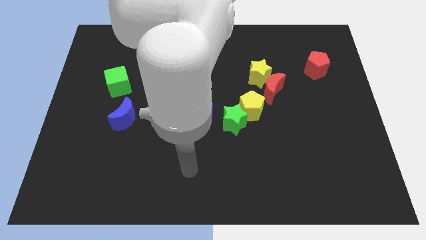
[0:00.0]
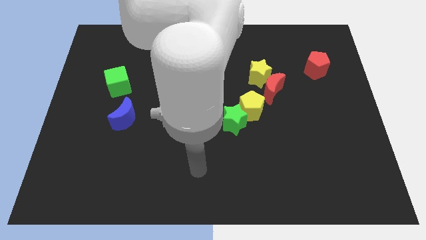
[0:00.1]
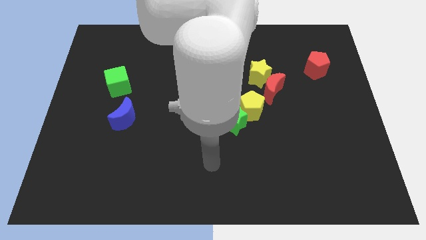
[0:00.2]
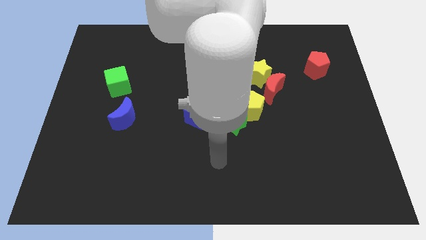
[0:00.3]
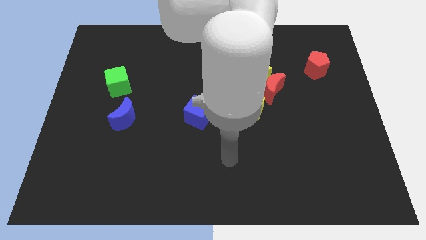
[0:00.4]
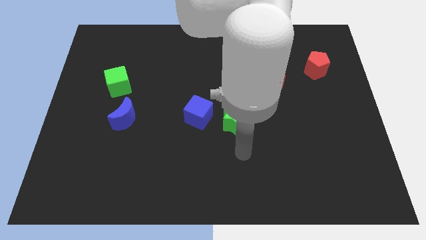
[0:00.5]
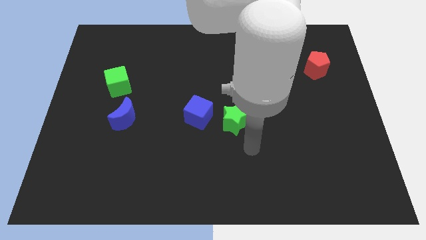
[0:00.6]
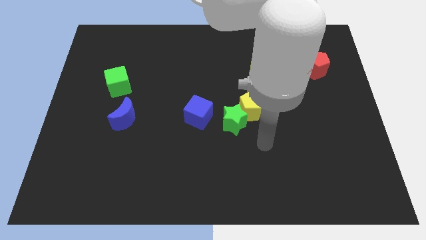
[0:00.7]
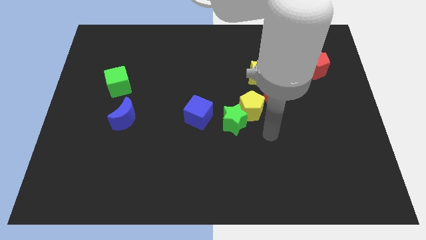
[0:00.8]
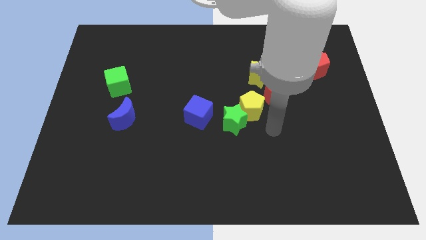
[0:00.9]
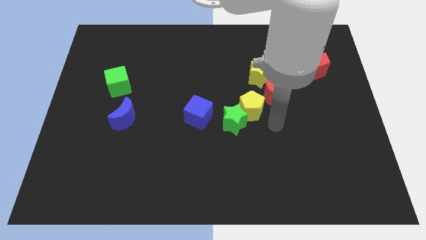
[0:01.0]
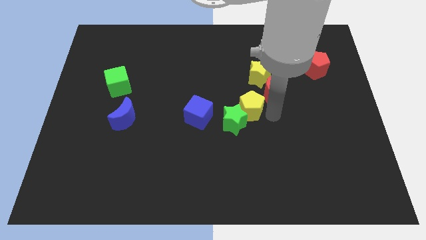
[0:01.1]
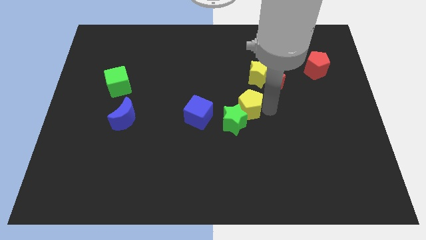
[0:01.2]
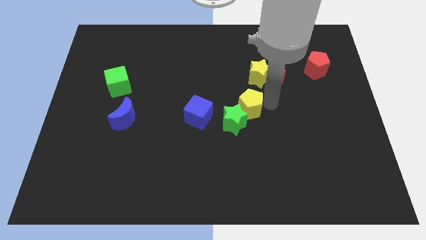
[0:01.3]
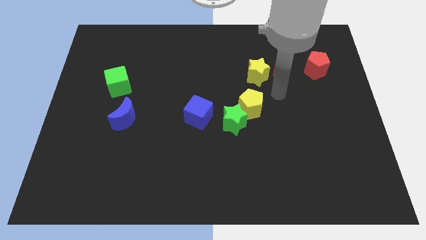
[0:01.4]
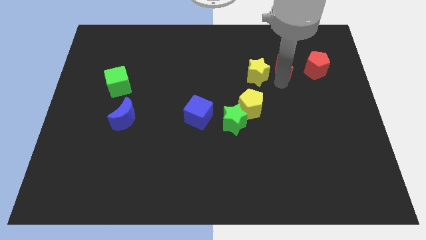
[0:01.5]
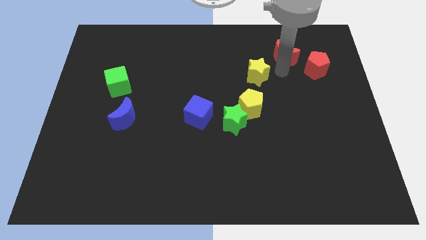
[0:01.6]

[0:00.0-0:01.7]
move the yellow star away from the red moon

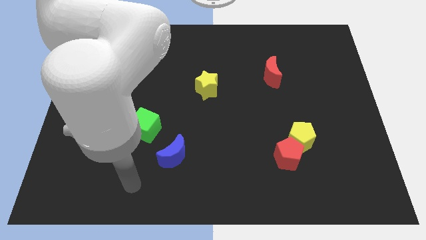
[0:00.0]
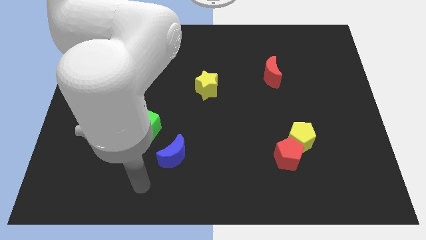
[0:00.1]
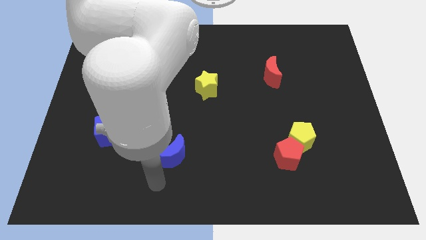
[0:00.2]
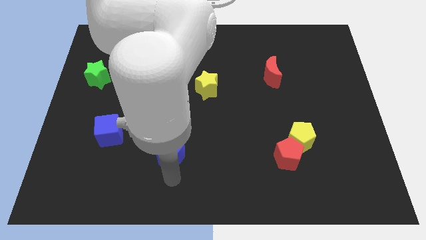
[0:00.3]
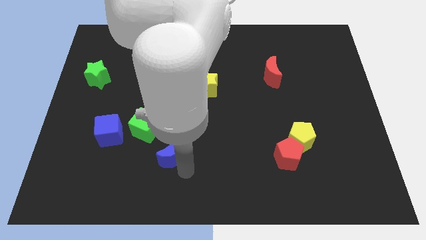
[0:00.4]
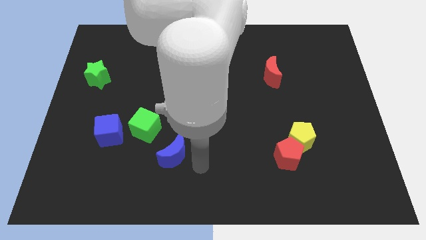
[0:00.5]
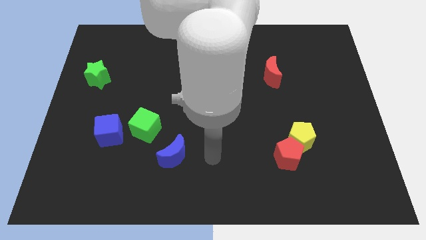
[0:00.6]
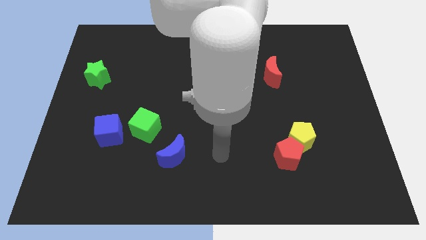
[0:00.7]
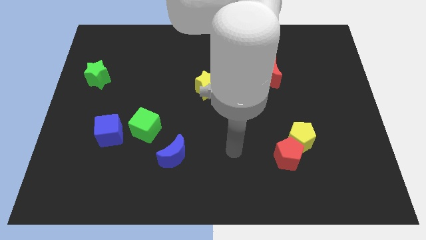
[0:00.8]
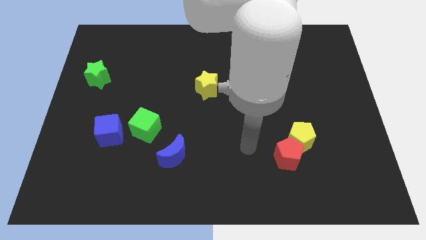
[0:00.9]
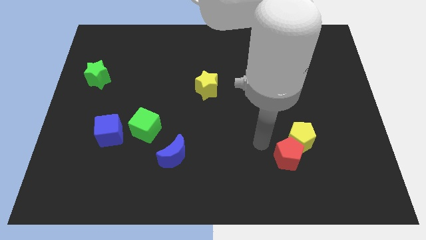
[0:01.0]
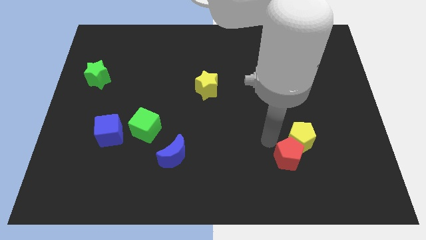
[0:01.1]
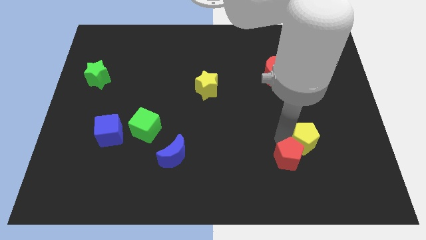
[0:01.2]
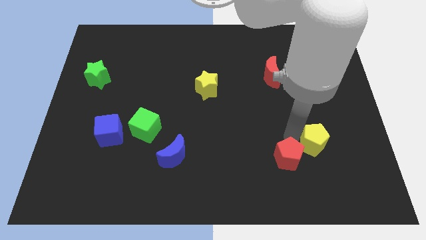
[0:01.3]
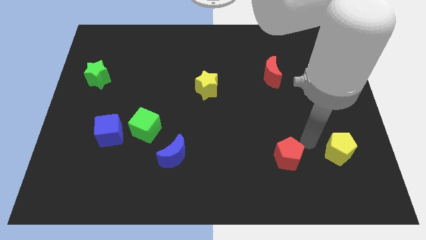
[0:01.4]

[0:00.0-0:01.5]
move the red pentagon away from the yellow pentagon

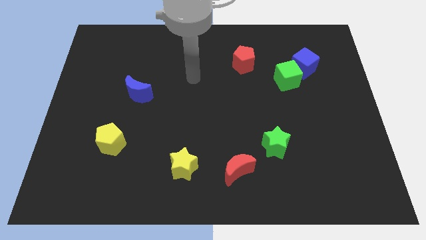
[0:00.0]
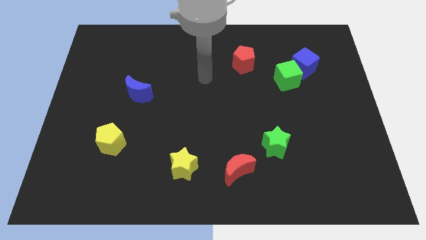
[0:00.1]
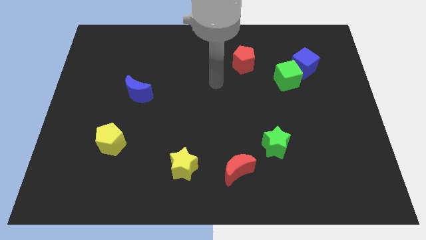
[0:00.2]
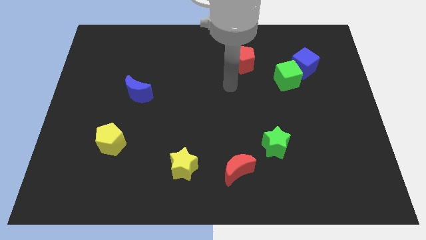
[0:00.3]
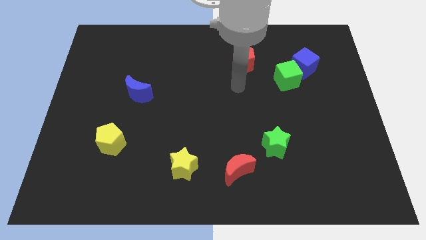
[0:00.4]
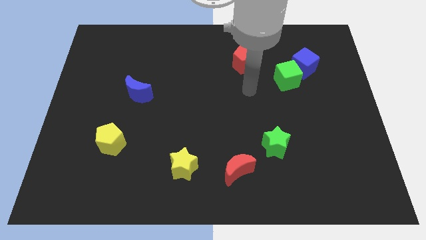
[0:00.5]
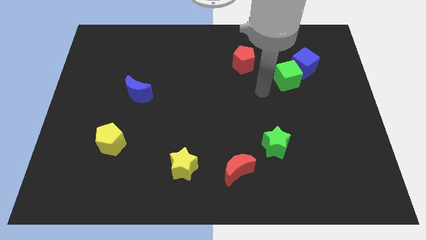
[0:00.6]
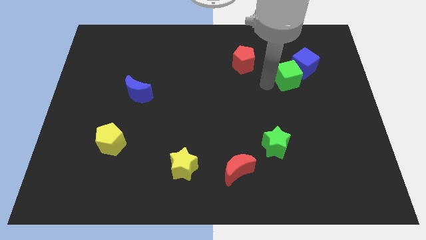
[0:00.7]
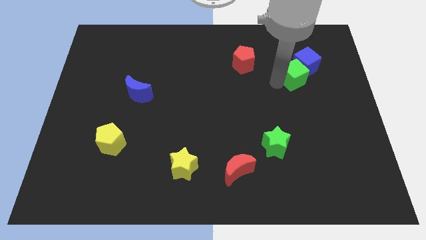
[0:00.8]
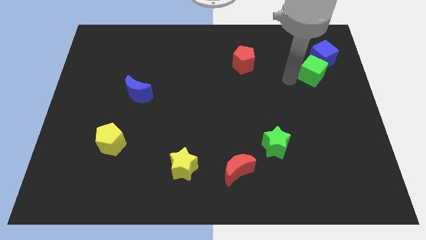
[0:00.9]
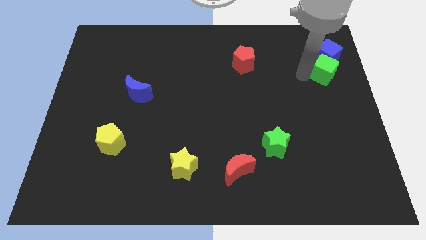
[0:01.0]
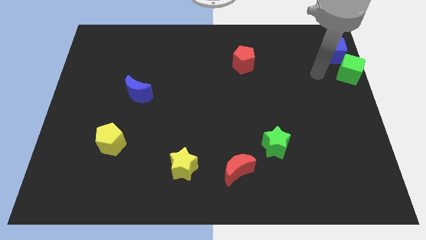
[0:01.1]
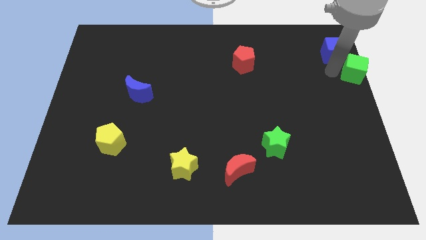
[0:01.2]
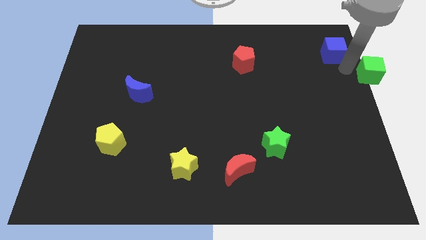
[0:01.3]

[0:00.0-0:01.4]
separate the blue cube from the green cube

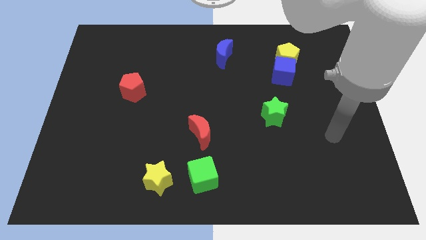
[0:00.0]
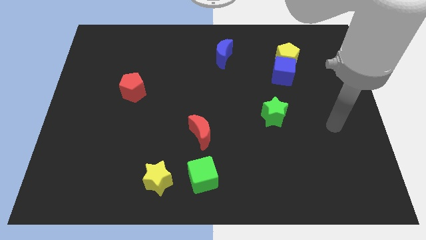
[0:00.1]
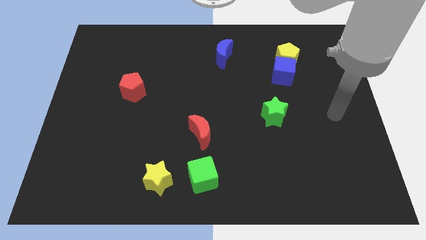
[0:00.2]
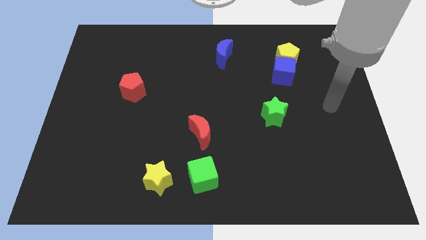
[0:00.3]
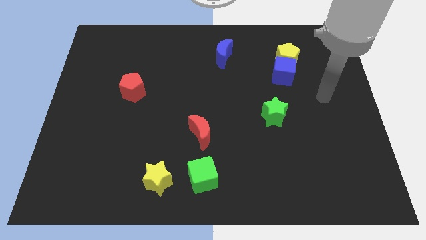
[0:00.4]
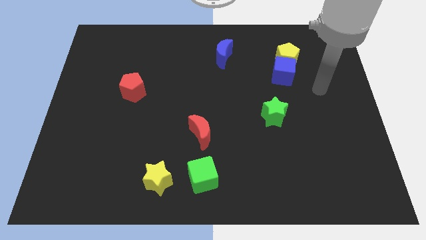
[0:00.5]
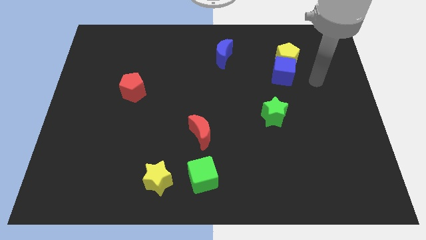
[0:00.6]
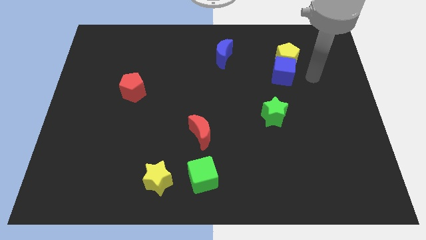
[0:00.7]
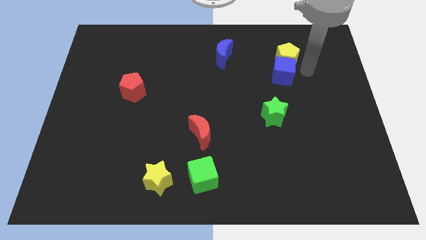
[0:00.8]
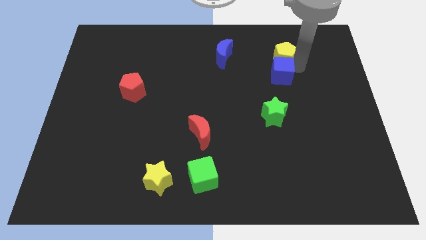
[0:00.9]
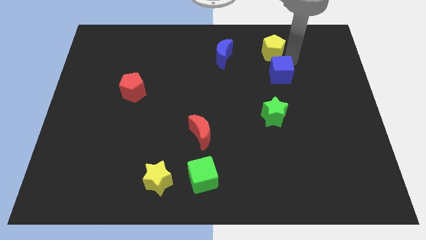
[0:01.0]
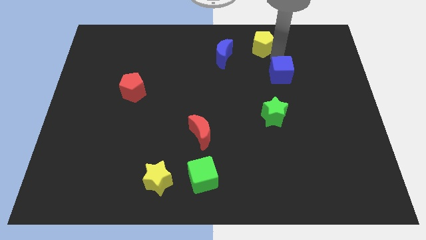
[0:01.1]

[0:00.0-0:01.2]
separate the blue cube from the yellow pentagon

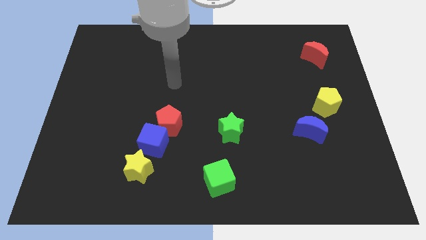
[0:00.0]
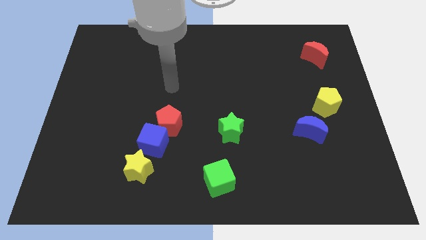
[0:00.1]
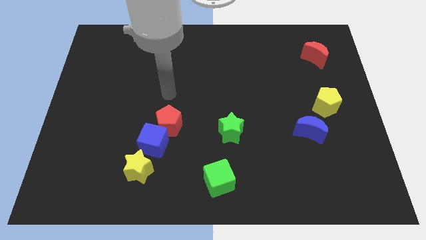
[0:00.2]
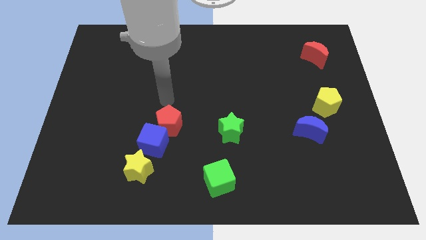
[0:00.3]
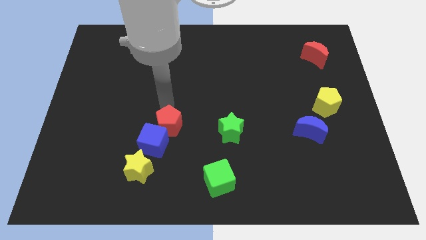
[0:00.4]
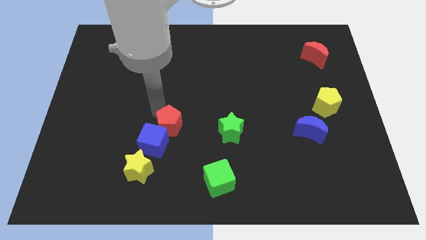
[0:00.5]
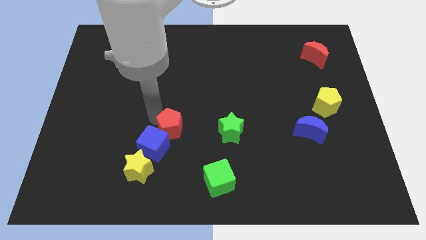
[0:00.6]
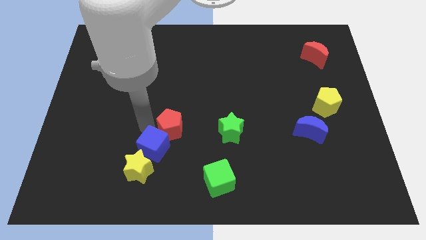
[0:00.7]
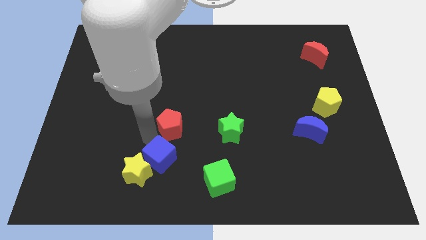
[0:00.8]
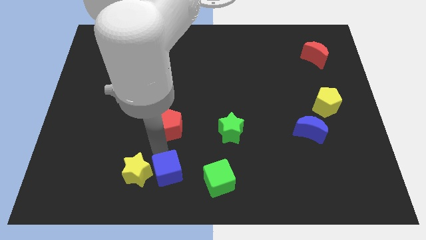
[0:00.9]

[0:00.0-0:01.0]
separate the red pentagon from the blue cube

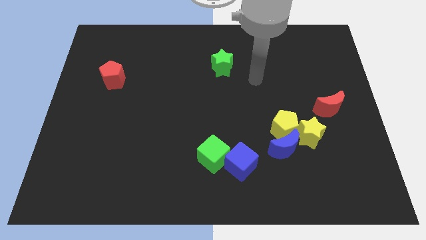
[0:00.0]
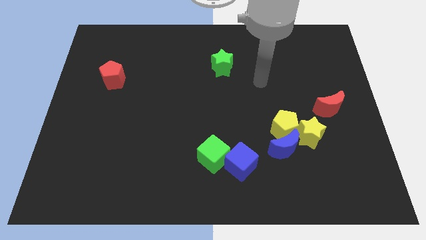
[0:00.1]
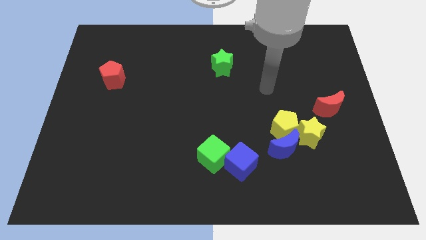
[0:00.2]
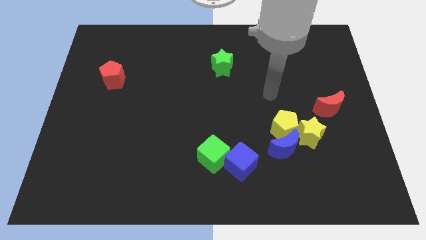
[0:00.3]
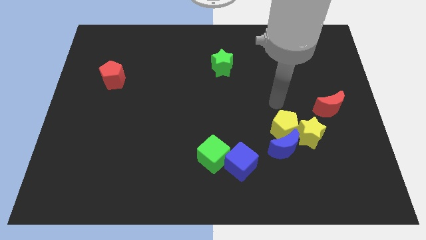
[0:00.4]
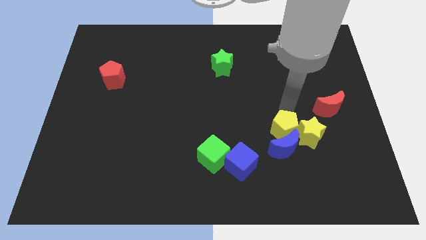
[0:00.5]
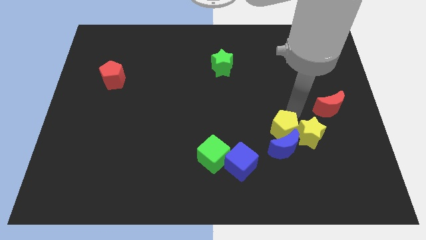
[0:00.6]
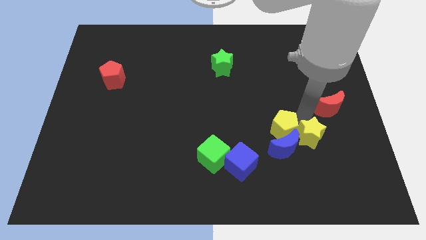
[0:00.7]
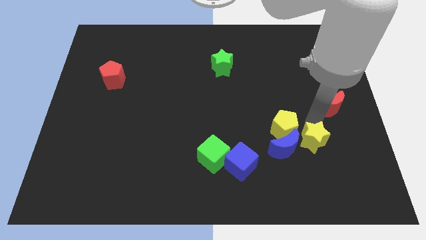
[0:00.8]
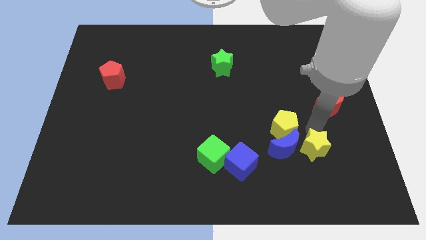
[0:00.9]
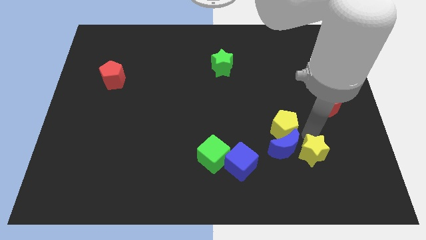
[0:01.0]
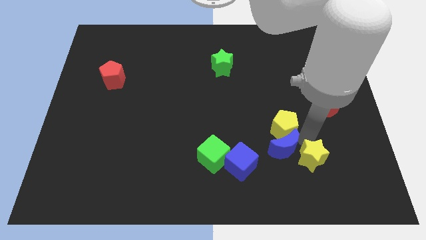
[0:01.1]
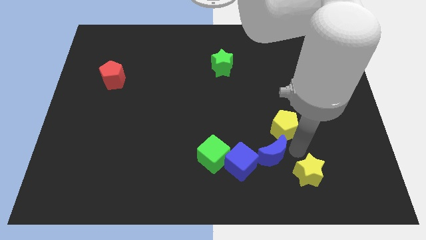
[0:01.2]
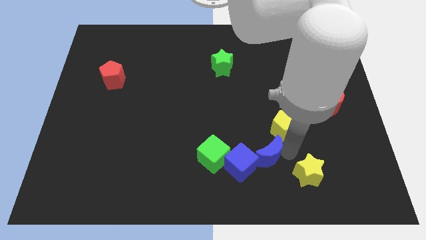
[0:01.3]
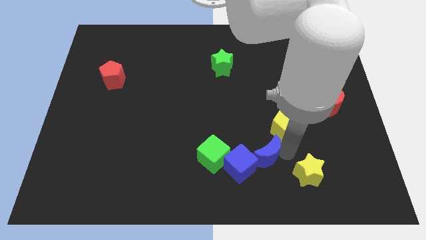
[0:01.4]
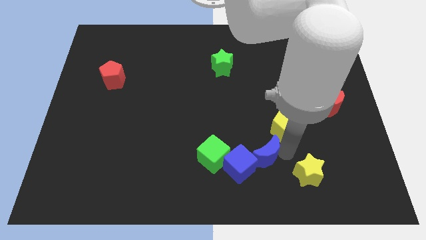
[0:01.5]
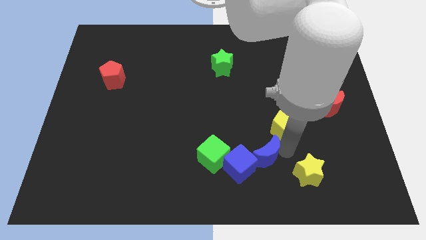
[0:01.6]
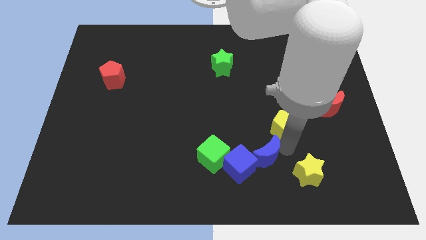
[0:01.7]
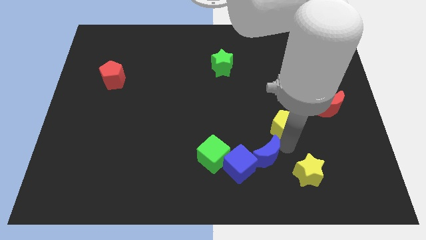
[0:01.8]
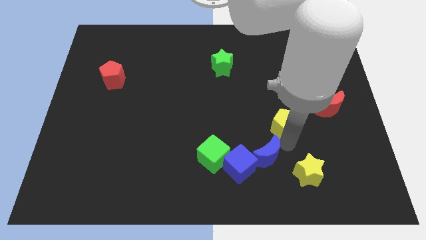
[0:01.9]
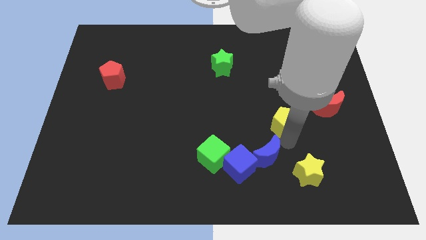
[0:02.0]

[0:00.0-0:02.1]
pull the yellow pentagon apart from the blue moon and yellow star

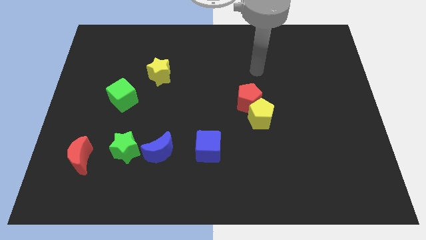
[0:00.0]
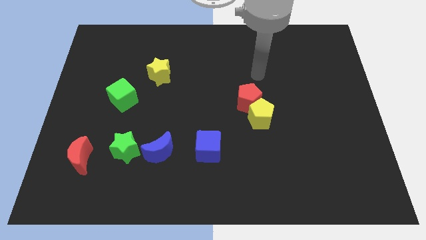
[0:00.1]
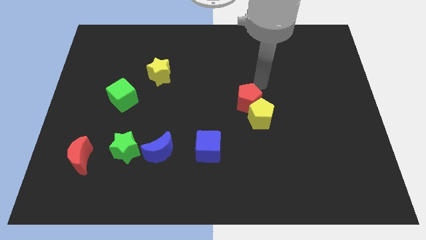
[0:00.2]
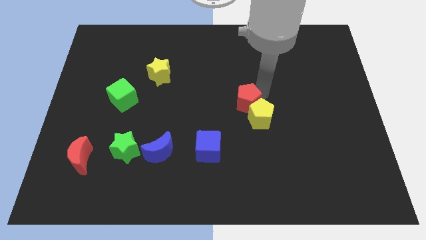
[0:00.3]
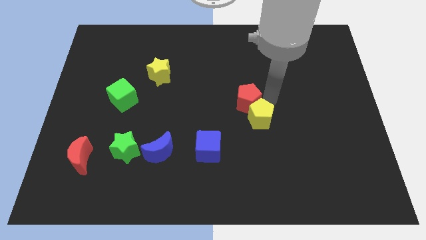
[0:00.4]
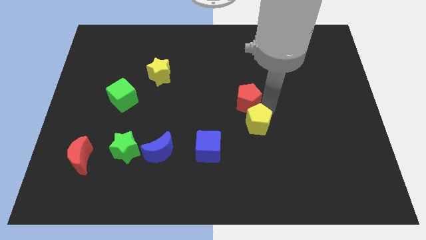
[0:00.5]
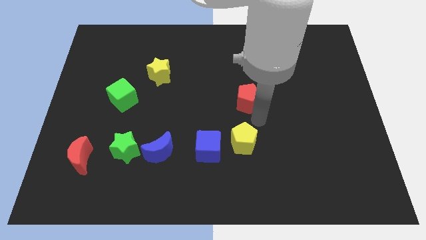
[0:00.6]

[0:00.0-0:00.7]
separate the red pentagon from the yellow pentagon
